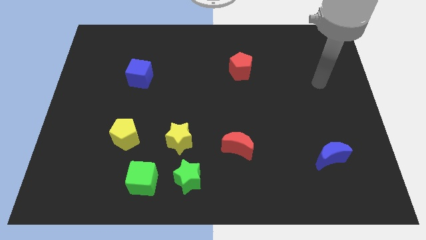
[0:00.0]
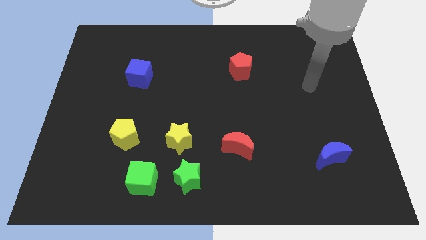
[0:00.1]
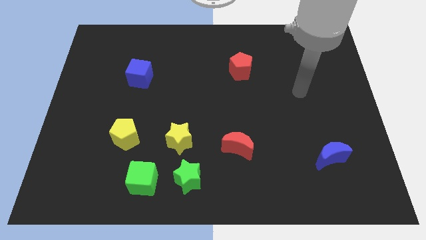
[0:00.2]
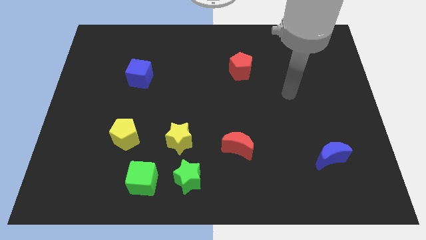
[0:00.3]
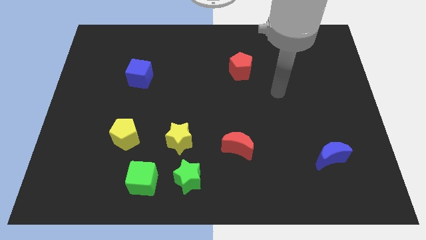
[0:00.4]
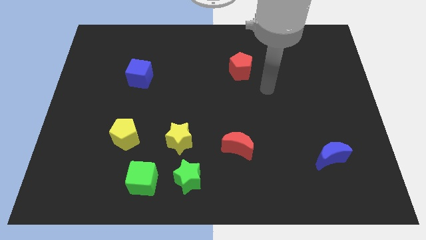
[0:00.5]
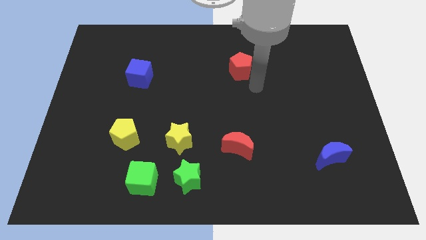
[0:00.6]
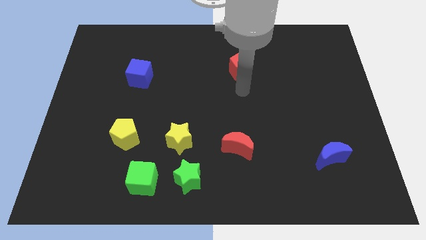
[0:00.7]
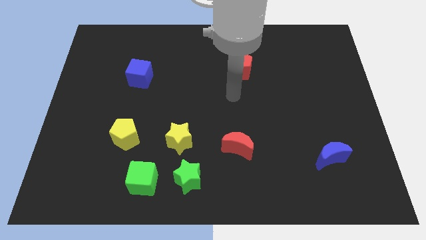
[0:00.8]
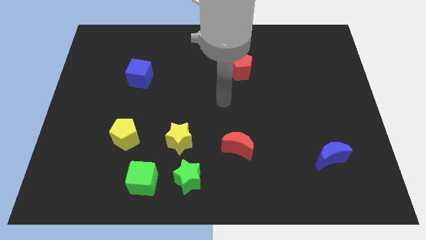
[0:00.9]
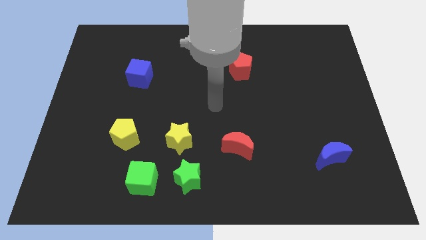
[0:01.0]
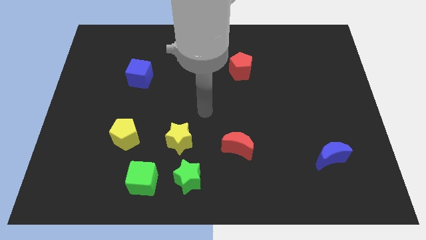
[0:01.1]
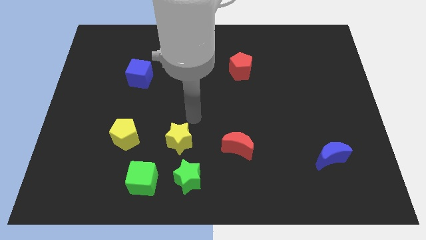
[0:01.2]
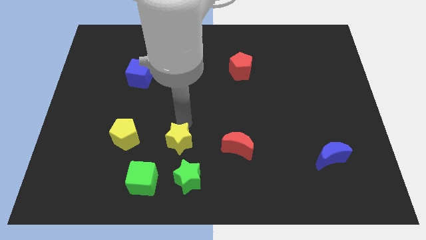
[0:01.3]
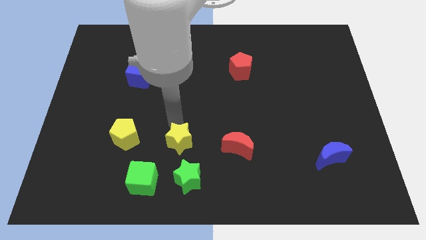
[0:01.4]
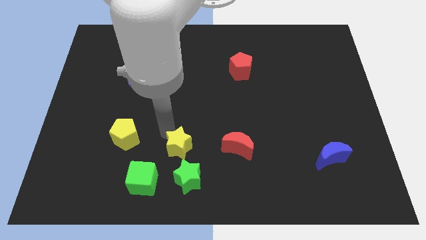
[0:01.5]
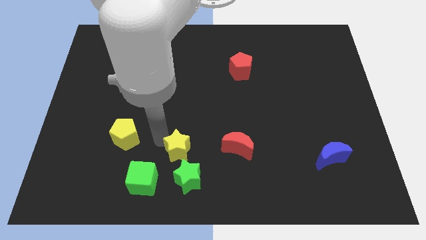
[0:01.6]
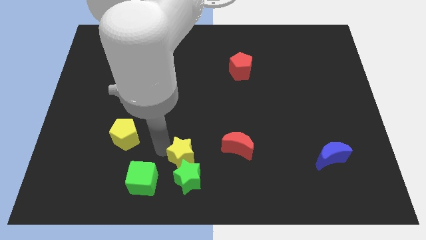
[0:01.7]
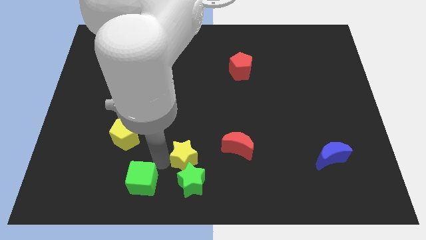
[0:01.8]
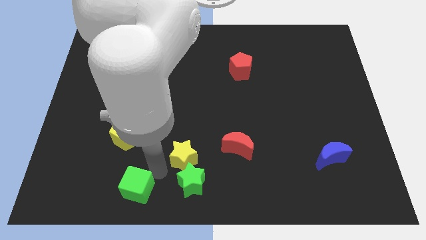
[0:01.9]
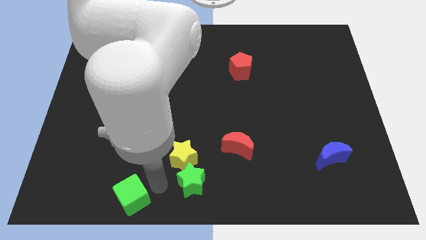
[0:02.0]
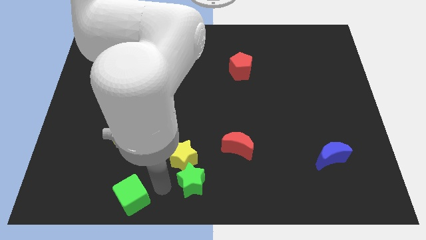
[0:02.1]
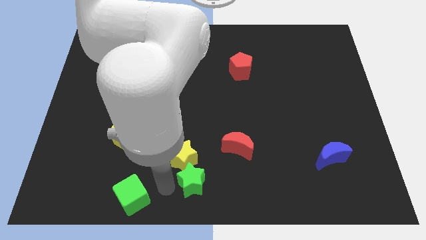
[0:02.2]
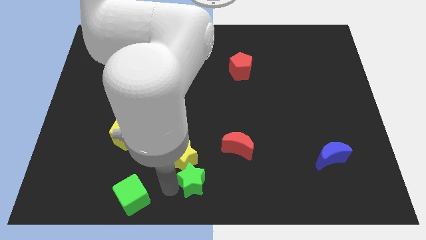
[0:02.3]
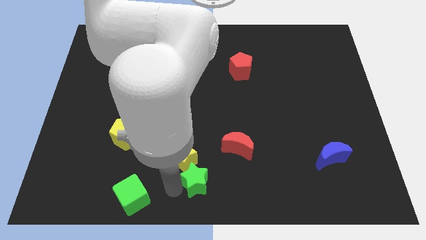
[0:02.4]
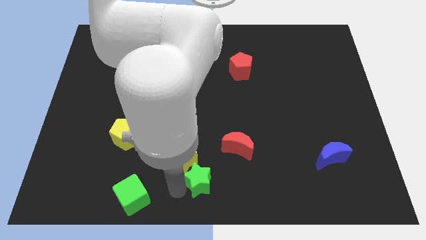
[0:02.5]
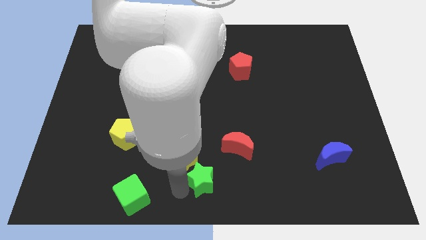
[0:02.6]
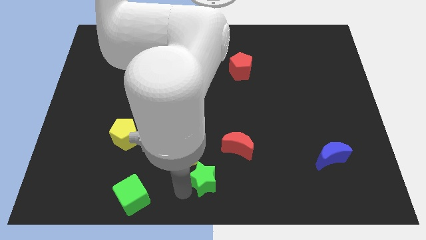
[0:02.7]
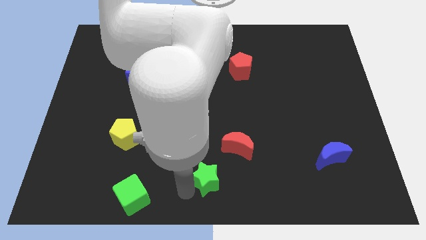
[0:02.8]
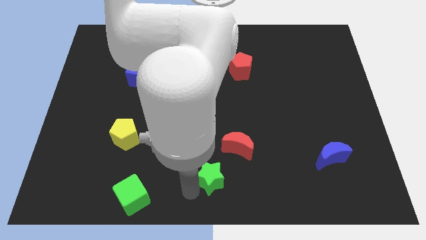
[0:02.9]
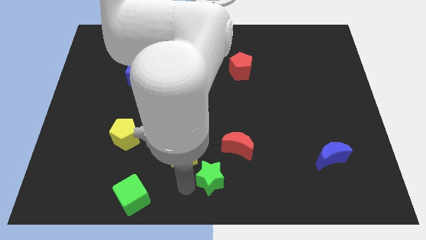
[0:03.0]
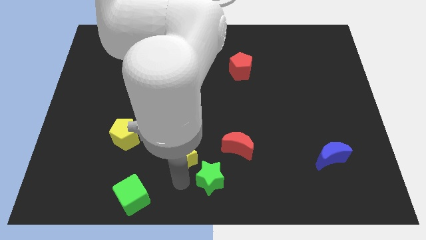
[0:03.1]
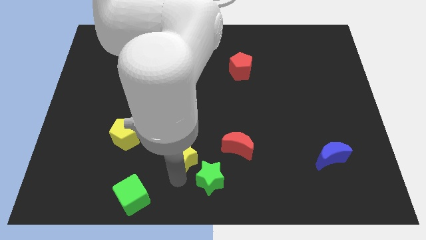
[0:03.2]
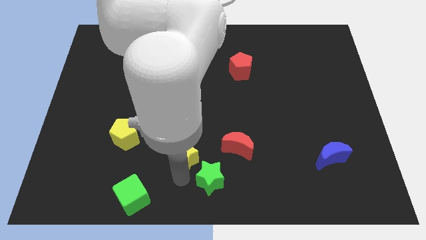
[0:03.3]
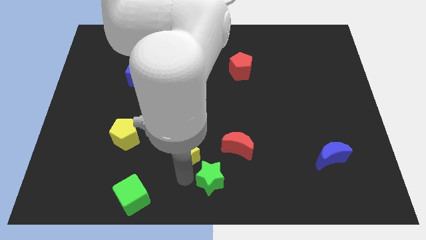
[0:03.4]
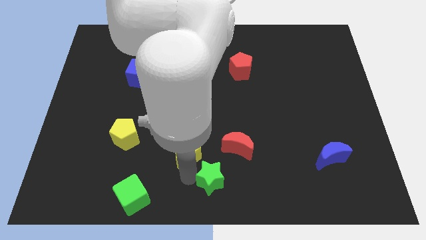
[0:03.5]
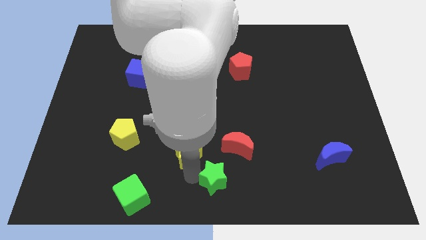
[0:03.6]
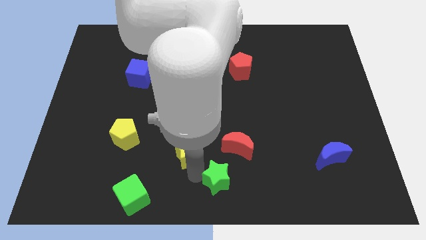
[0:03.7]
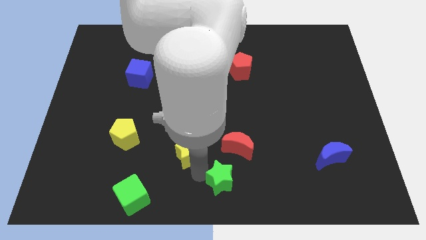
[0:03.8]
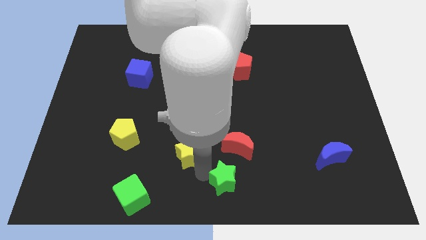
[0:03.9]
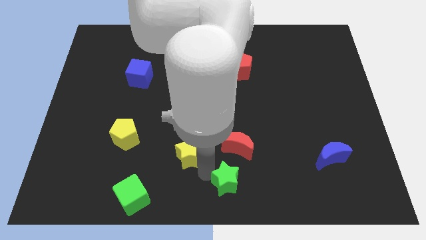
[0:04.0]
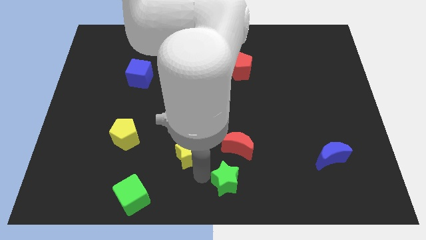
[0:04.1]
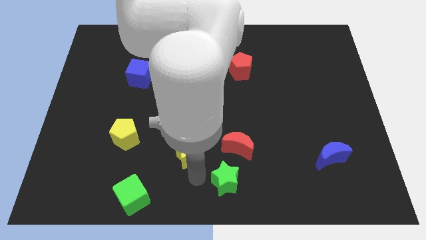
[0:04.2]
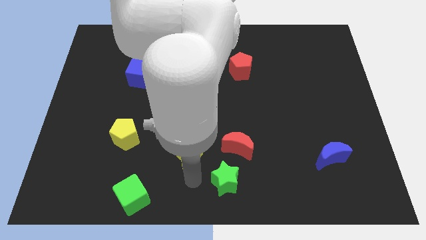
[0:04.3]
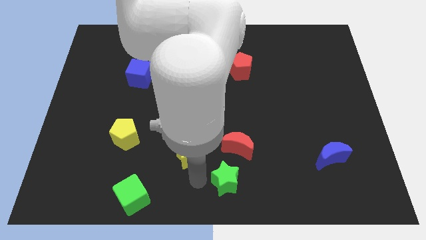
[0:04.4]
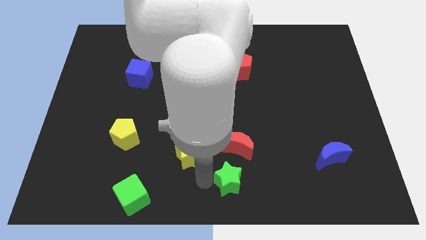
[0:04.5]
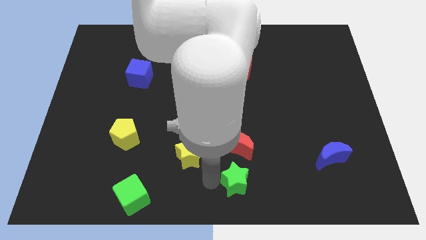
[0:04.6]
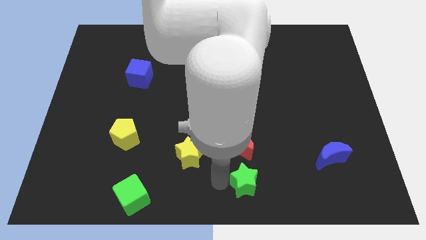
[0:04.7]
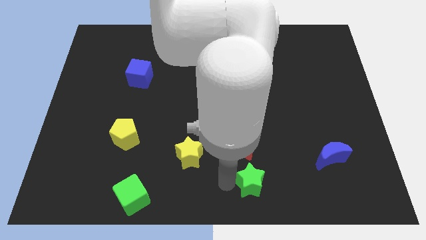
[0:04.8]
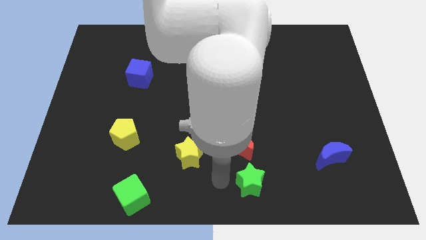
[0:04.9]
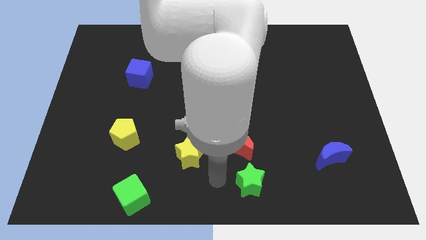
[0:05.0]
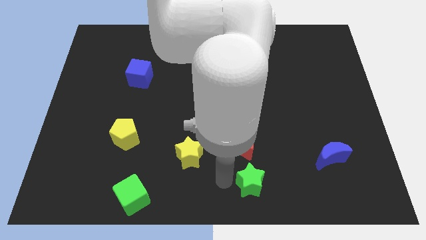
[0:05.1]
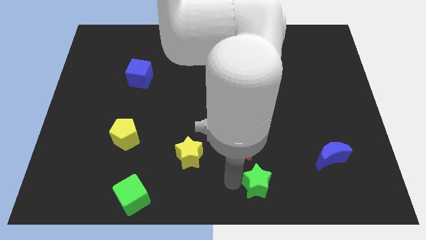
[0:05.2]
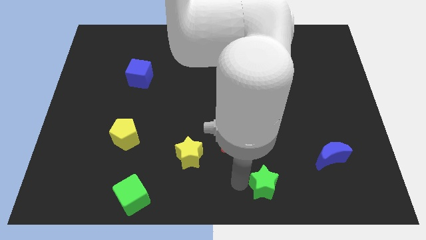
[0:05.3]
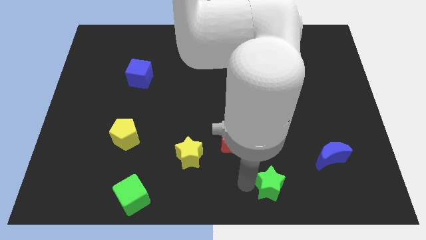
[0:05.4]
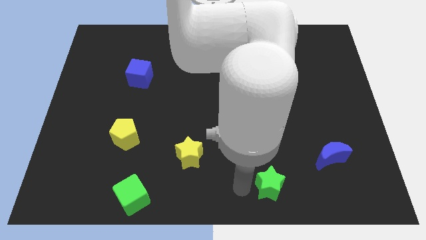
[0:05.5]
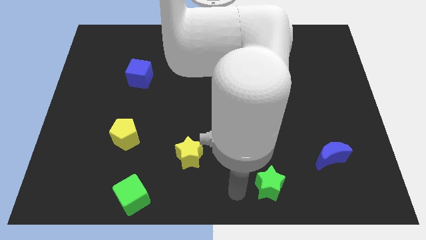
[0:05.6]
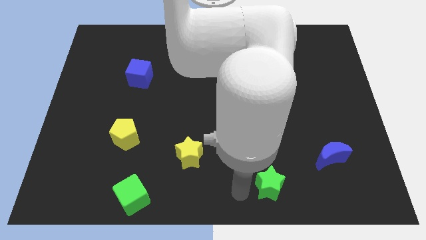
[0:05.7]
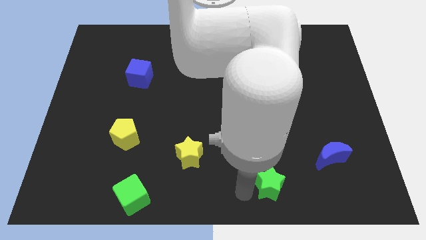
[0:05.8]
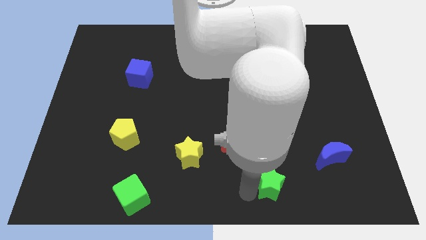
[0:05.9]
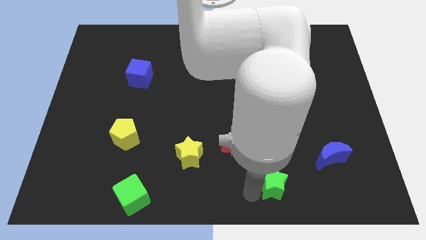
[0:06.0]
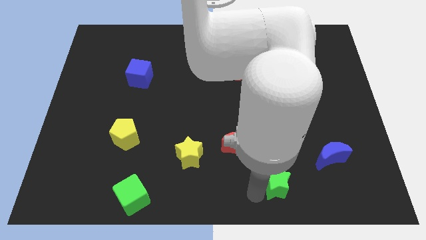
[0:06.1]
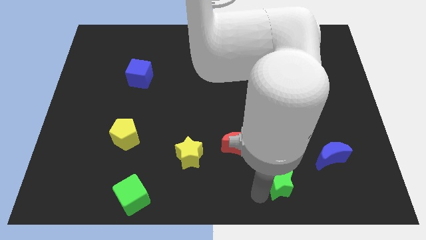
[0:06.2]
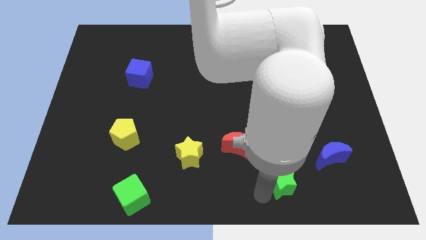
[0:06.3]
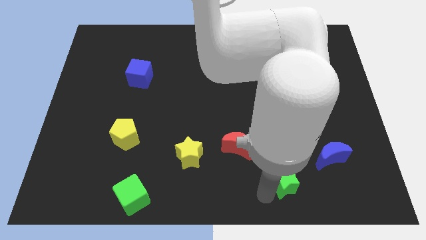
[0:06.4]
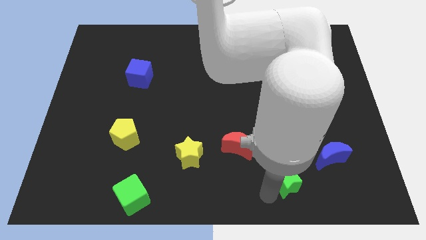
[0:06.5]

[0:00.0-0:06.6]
slide the green star right

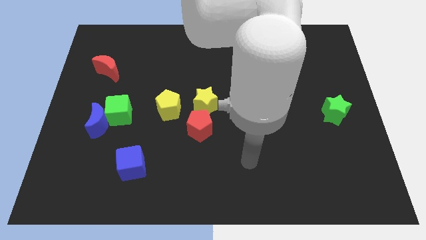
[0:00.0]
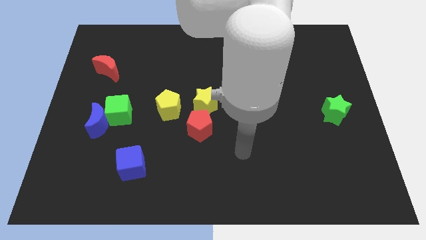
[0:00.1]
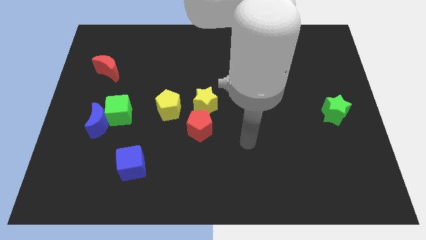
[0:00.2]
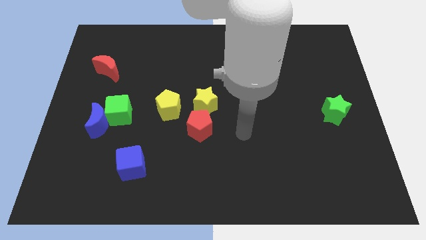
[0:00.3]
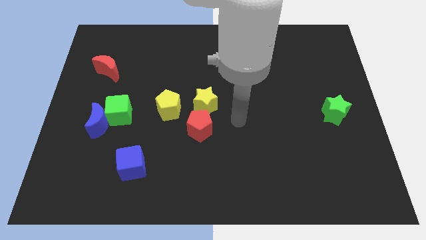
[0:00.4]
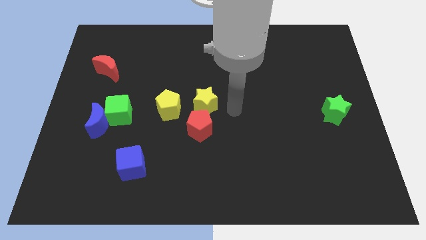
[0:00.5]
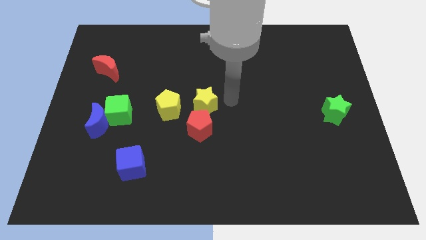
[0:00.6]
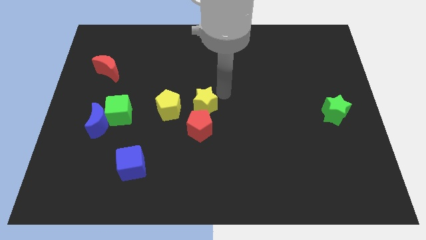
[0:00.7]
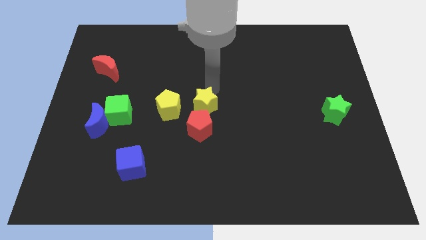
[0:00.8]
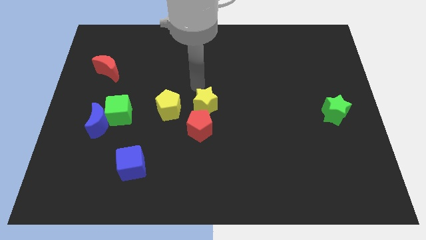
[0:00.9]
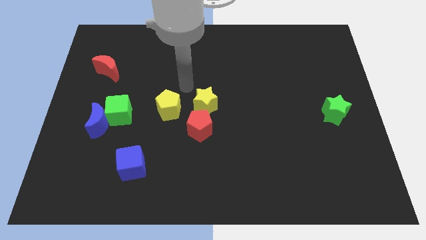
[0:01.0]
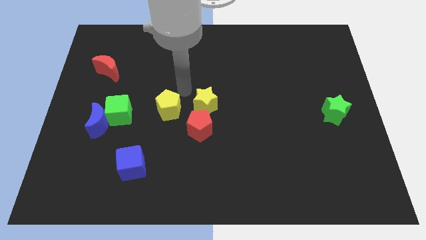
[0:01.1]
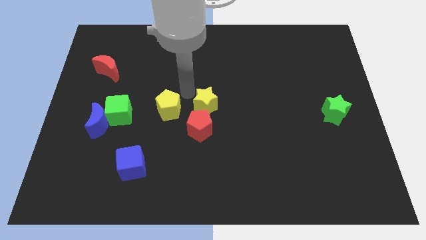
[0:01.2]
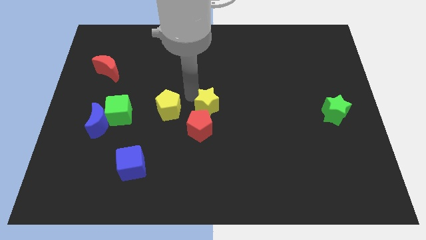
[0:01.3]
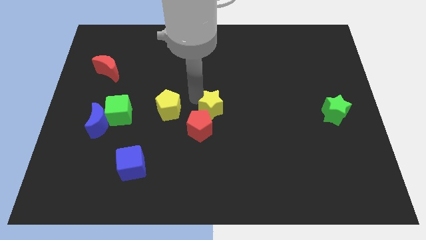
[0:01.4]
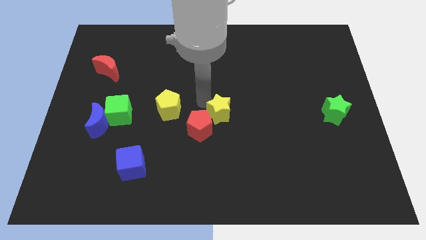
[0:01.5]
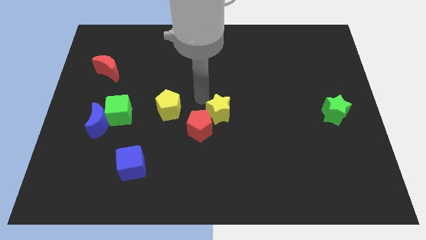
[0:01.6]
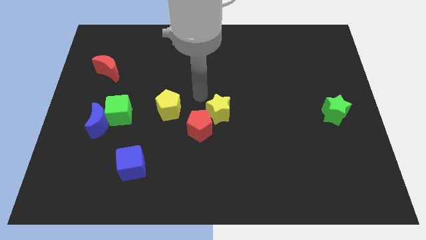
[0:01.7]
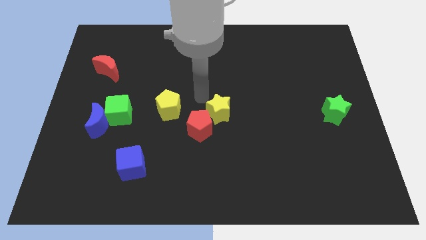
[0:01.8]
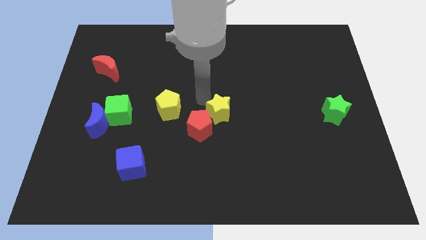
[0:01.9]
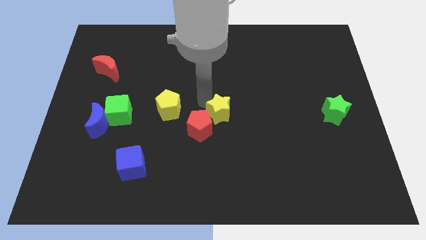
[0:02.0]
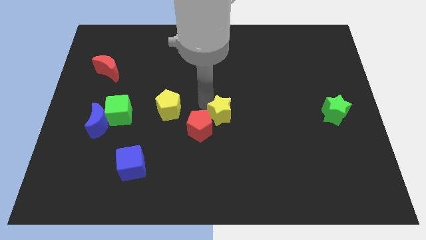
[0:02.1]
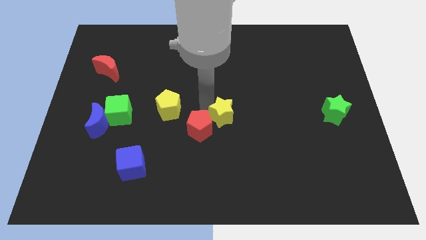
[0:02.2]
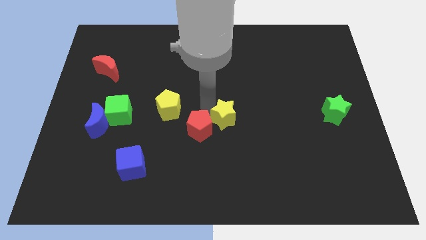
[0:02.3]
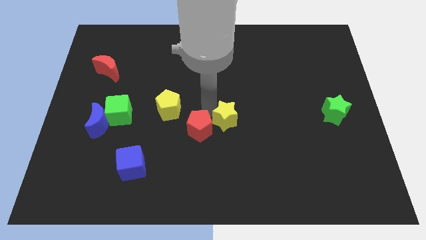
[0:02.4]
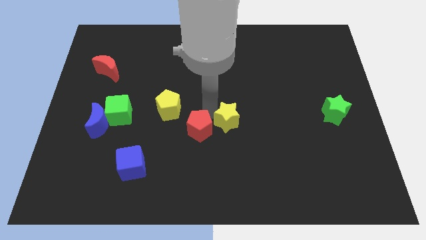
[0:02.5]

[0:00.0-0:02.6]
slightly move the yellow star downwards and to the right
